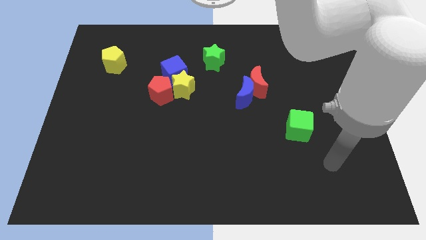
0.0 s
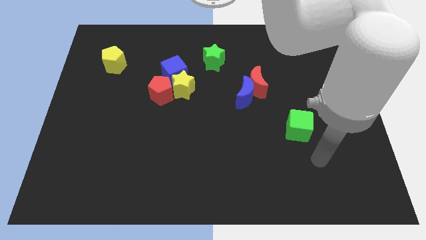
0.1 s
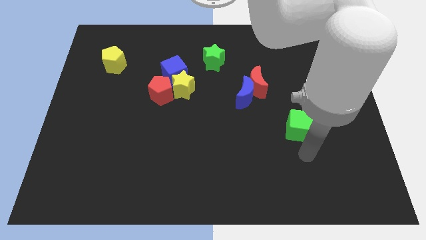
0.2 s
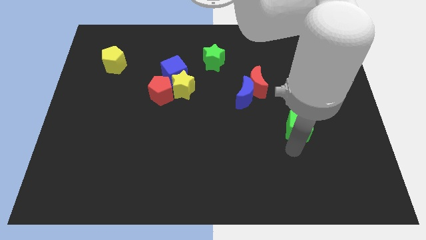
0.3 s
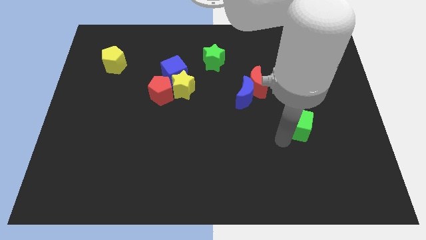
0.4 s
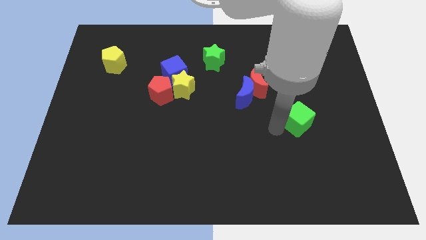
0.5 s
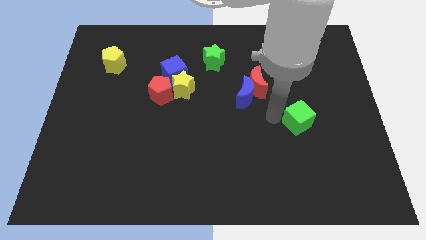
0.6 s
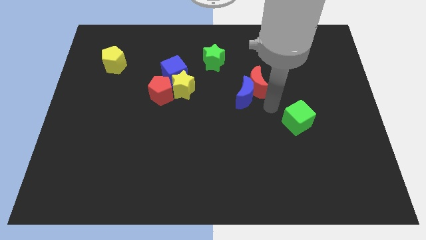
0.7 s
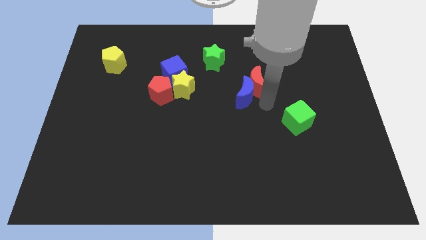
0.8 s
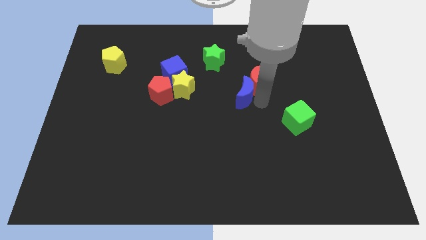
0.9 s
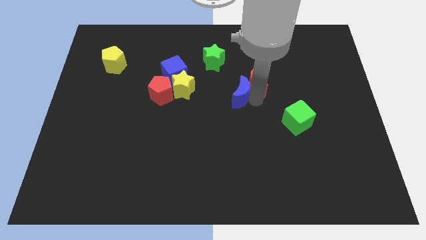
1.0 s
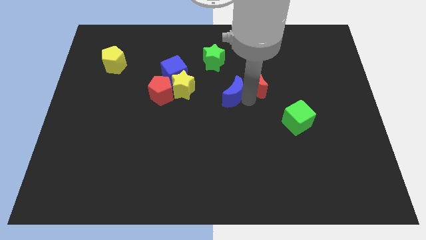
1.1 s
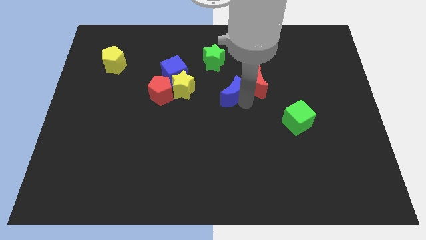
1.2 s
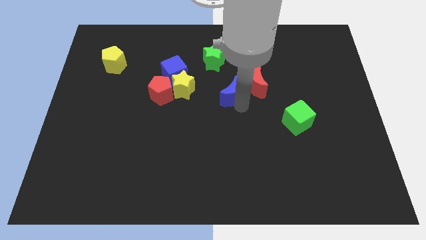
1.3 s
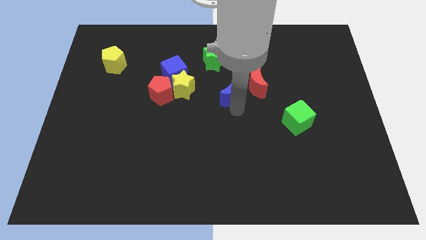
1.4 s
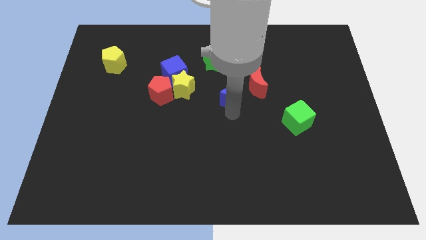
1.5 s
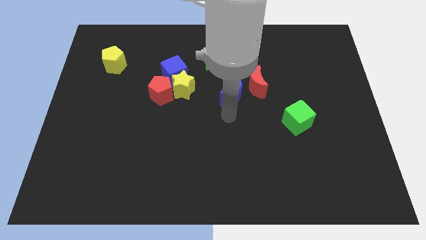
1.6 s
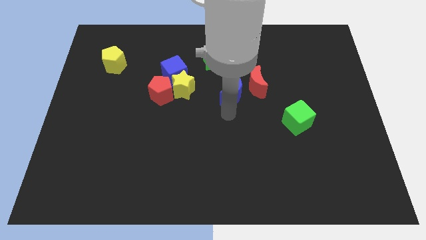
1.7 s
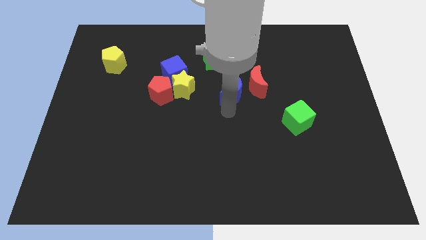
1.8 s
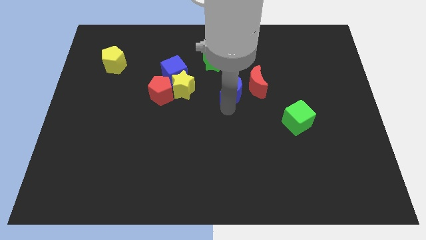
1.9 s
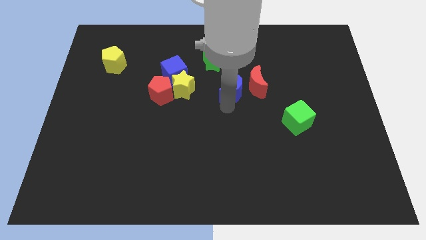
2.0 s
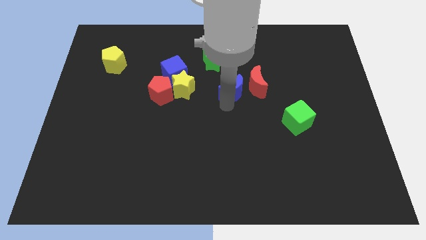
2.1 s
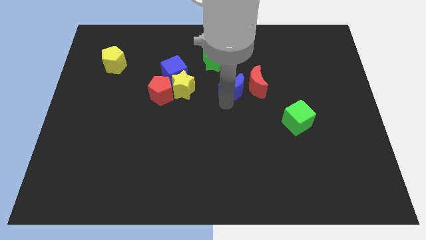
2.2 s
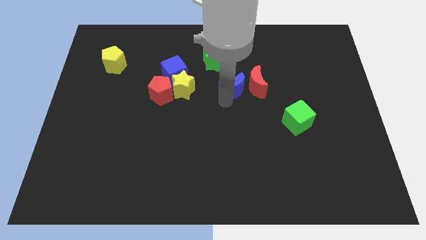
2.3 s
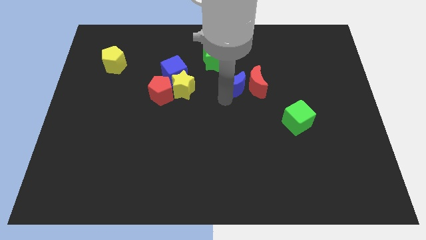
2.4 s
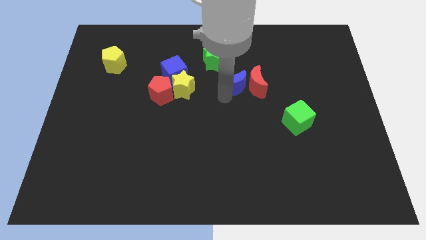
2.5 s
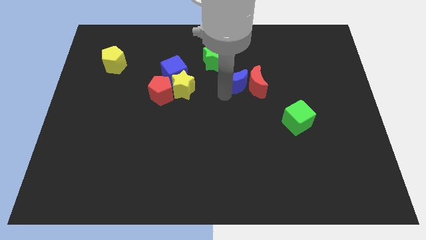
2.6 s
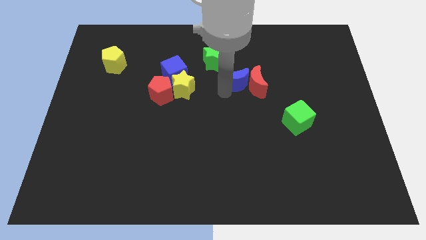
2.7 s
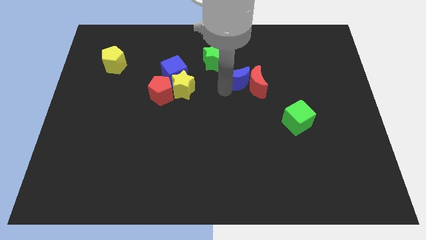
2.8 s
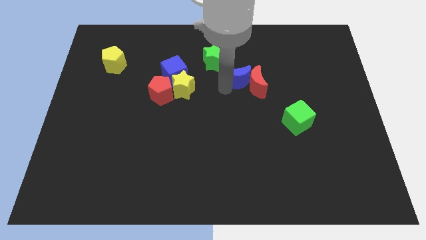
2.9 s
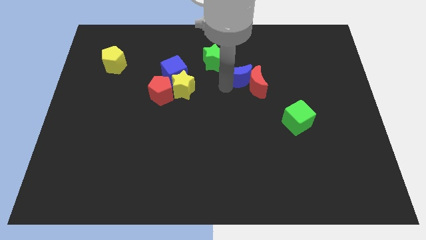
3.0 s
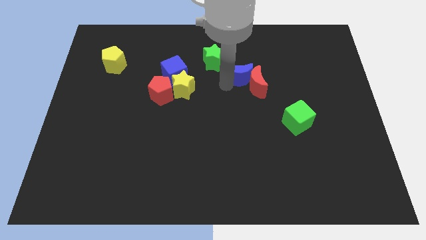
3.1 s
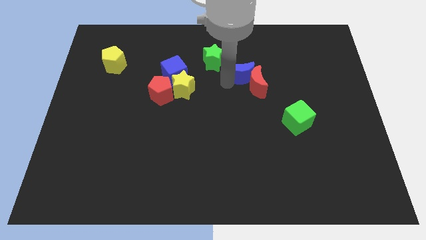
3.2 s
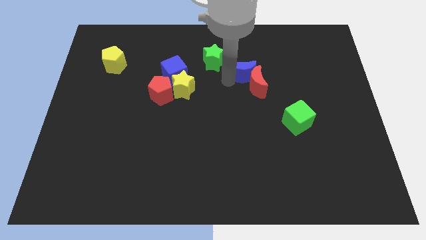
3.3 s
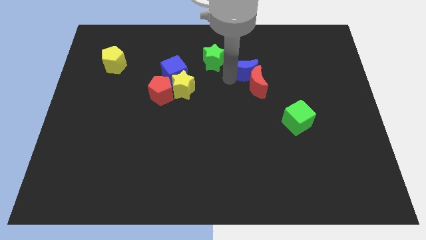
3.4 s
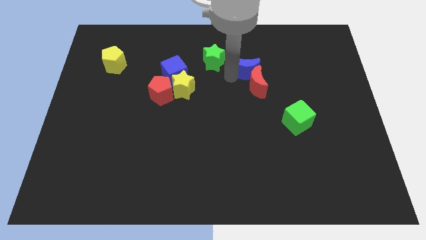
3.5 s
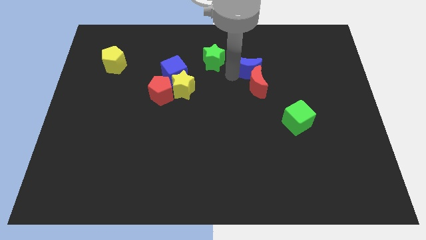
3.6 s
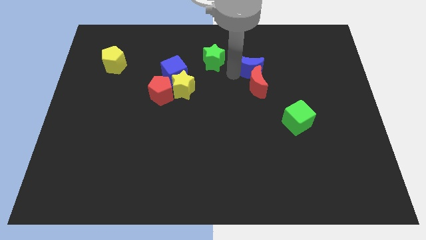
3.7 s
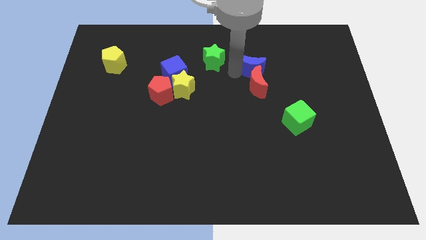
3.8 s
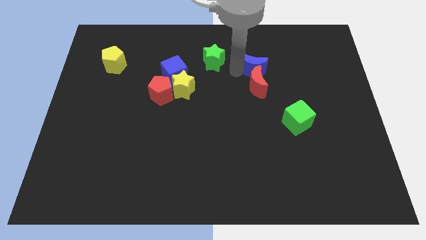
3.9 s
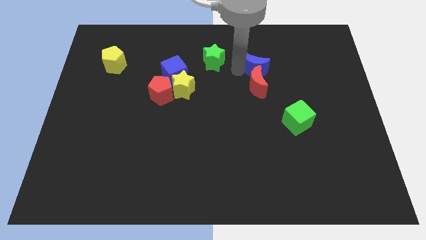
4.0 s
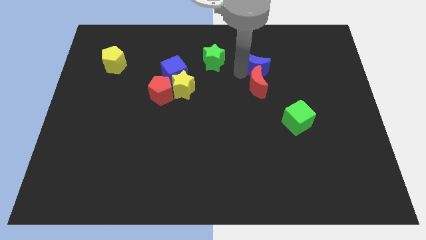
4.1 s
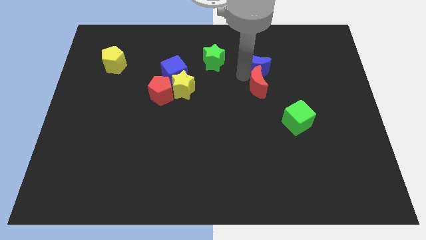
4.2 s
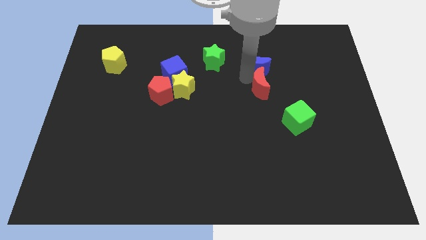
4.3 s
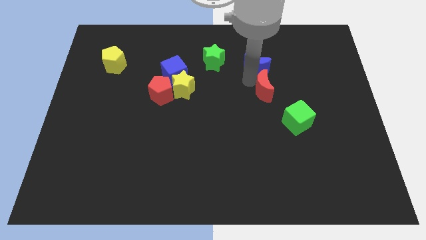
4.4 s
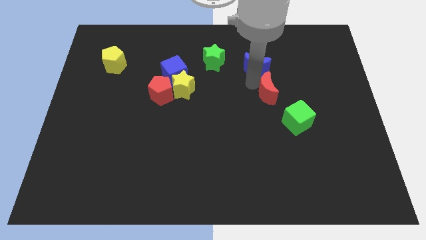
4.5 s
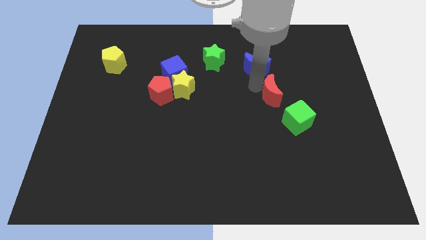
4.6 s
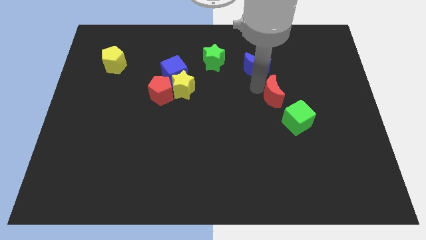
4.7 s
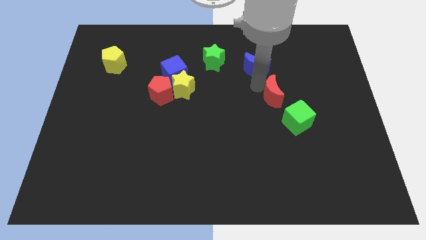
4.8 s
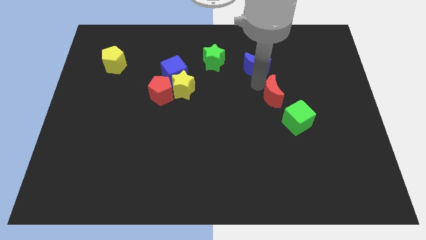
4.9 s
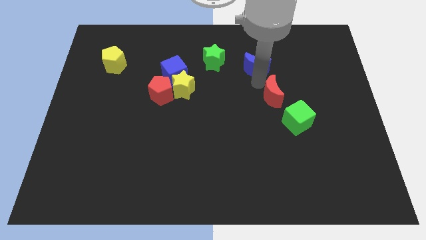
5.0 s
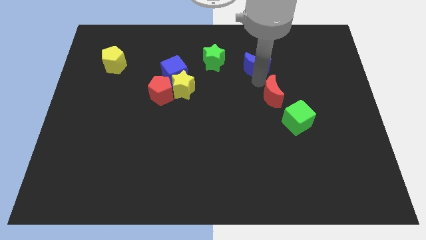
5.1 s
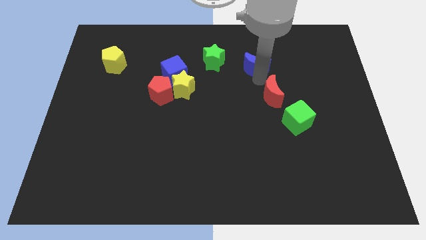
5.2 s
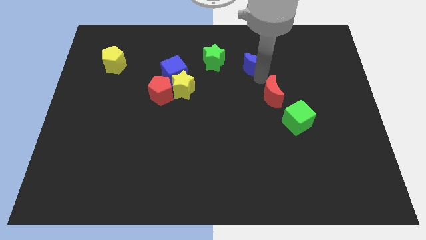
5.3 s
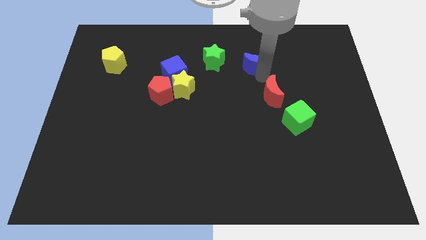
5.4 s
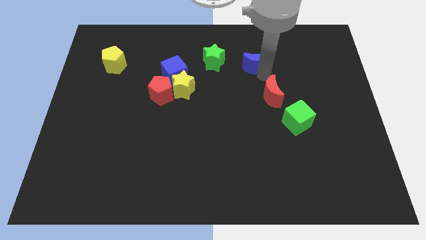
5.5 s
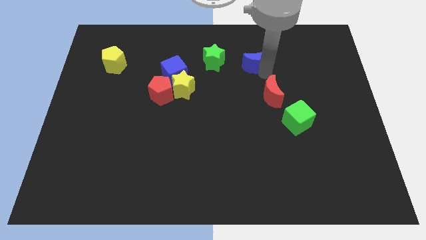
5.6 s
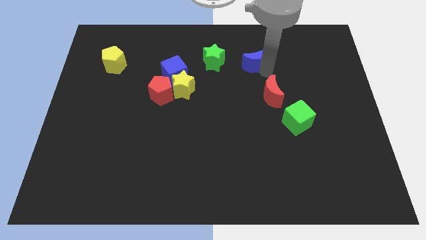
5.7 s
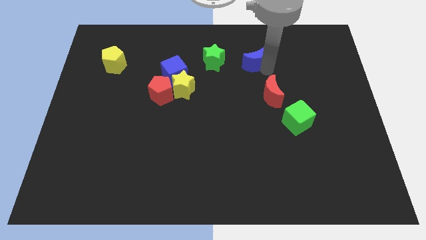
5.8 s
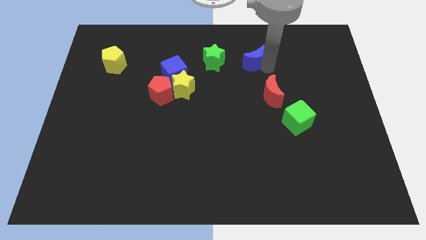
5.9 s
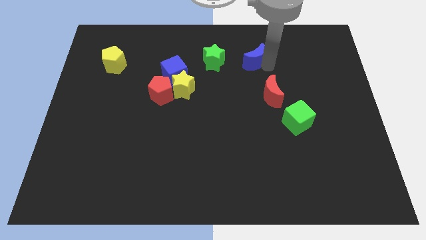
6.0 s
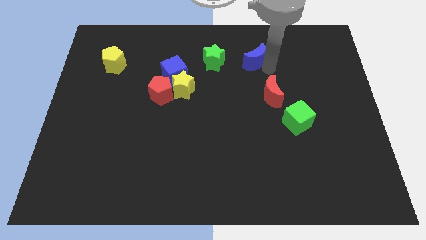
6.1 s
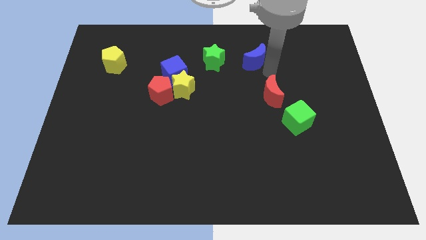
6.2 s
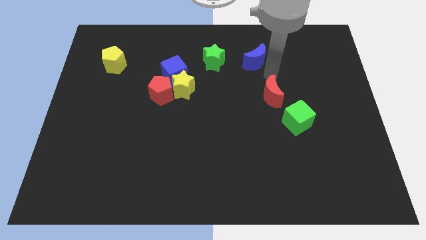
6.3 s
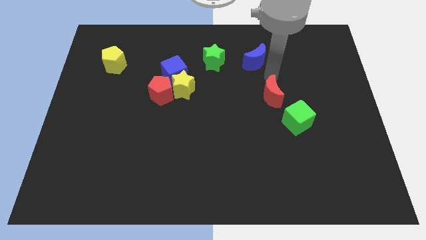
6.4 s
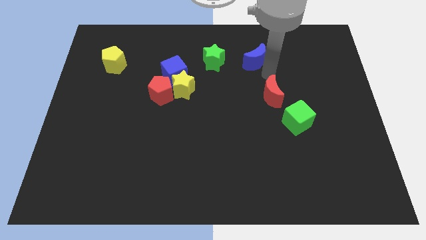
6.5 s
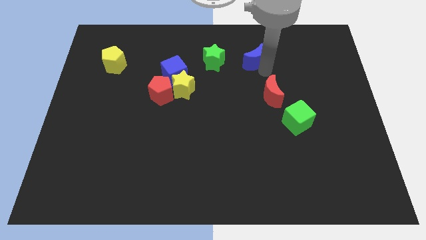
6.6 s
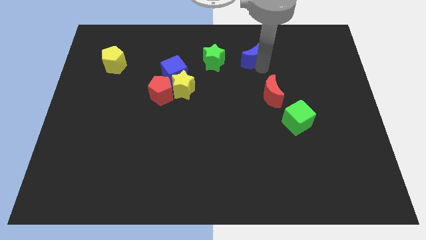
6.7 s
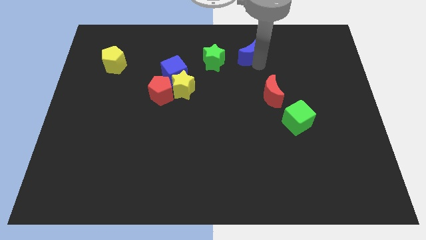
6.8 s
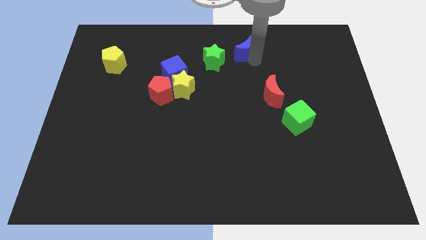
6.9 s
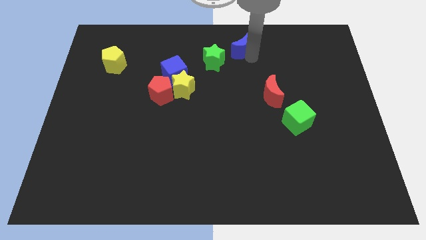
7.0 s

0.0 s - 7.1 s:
push the blue moon to the top
